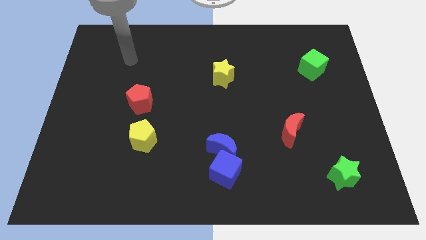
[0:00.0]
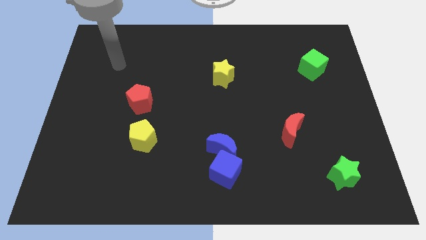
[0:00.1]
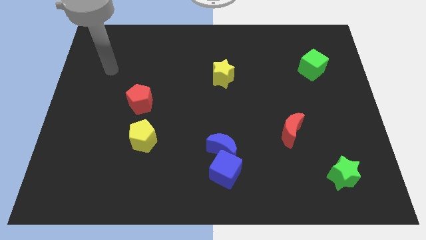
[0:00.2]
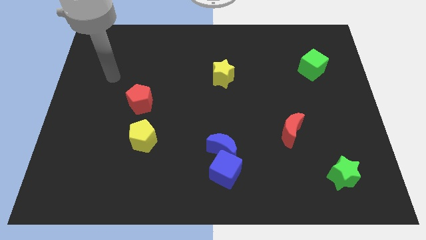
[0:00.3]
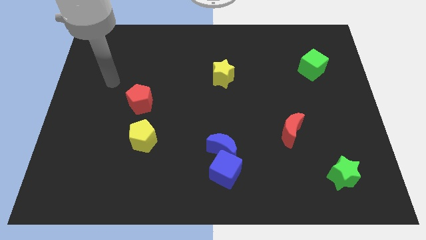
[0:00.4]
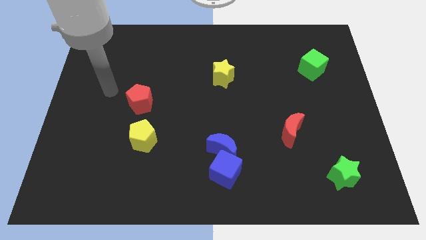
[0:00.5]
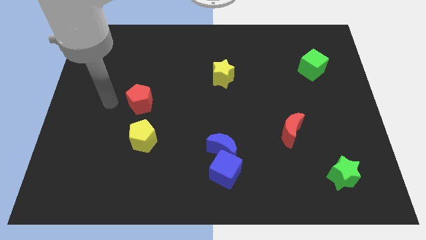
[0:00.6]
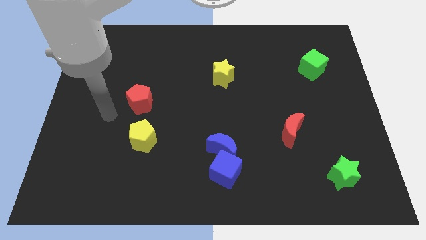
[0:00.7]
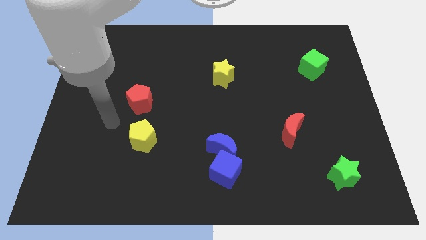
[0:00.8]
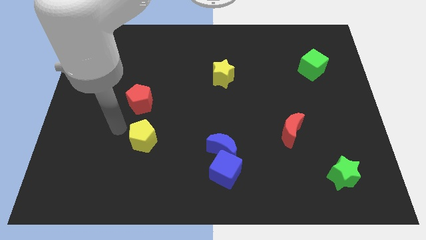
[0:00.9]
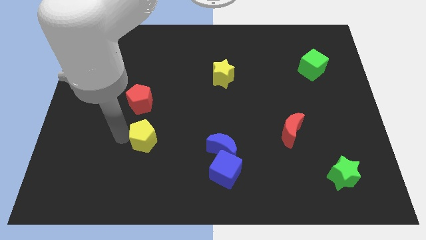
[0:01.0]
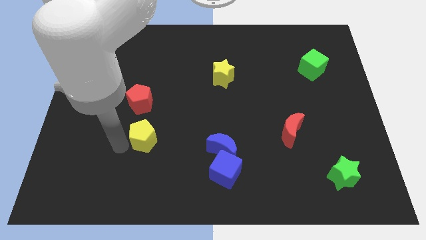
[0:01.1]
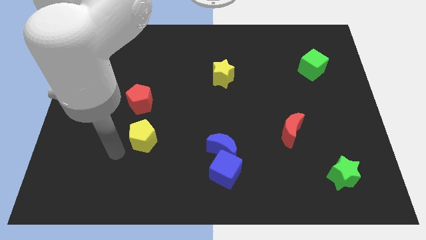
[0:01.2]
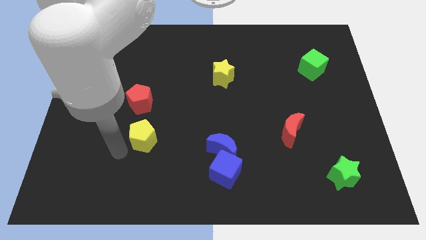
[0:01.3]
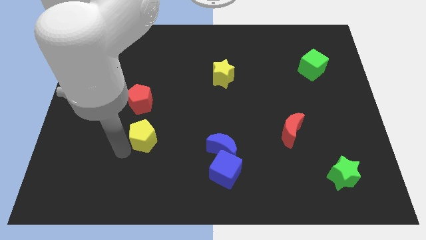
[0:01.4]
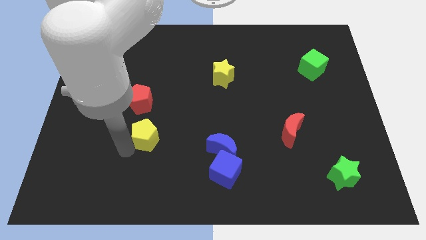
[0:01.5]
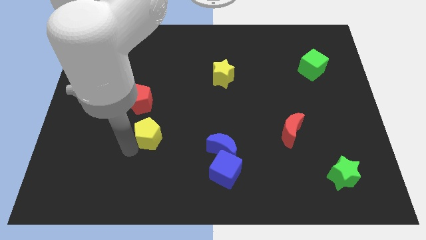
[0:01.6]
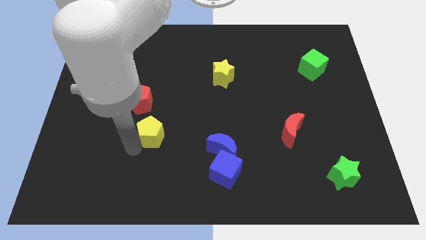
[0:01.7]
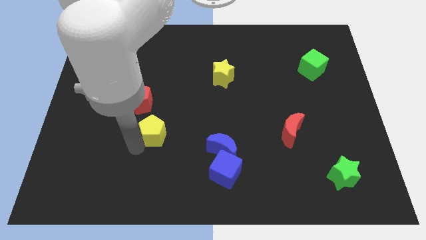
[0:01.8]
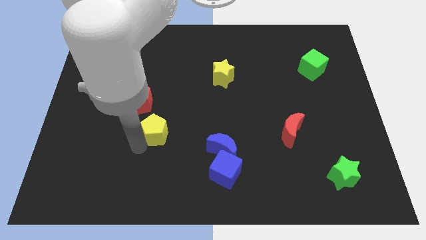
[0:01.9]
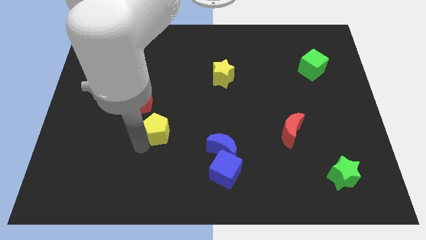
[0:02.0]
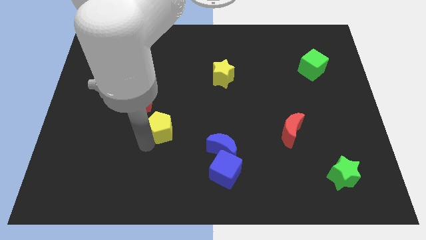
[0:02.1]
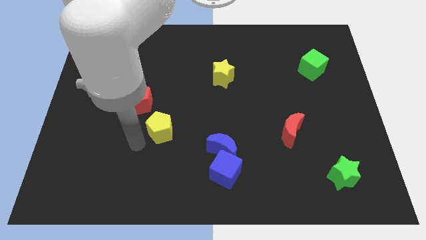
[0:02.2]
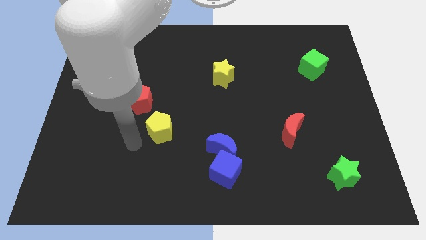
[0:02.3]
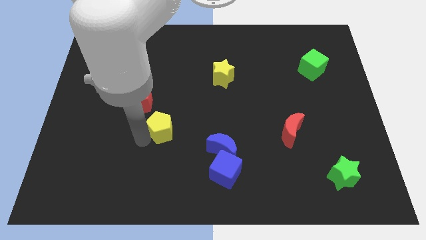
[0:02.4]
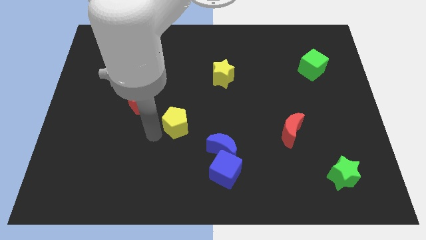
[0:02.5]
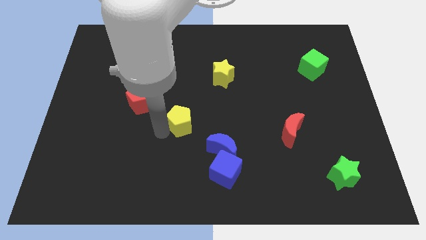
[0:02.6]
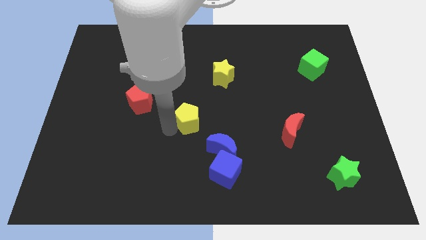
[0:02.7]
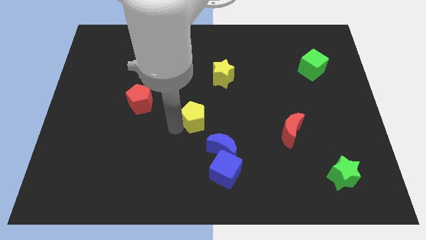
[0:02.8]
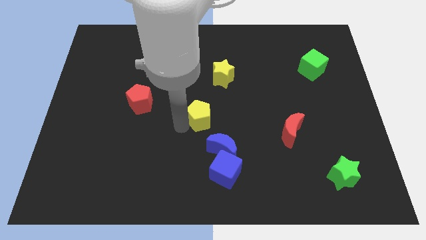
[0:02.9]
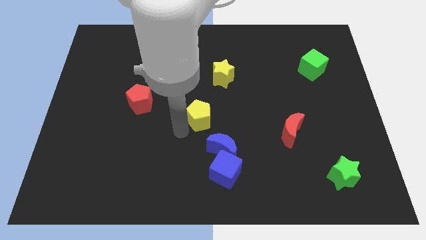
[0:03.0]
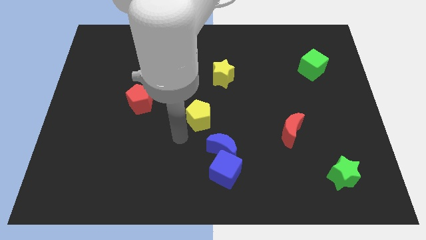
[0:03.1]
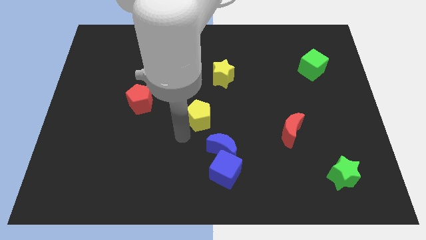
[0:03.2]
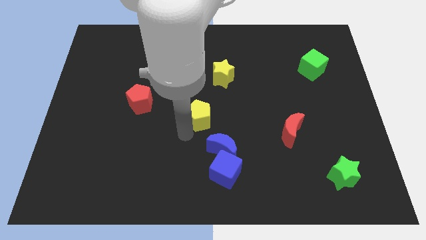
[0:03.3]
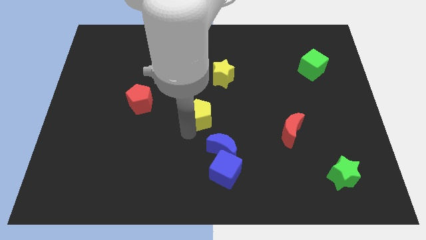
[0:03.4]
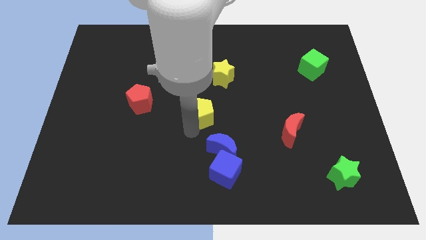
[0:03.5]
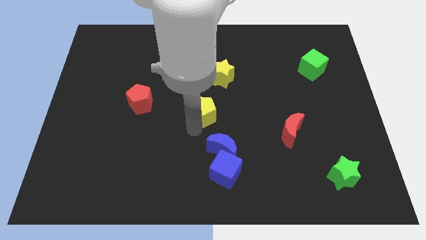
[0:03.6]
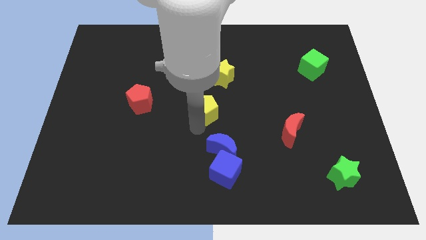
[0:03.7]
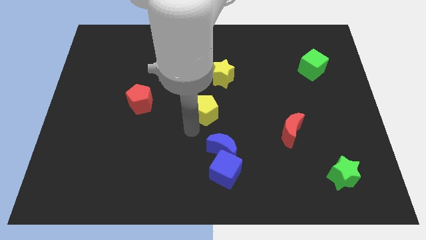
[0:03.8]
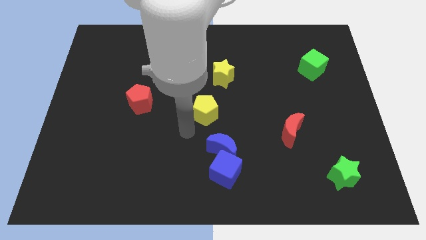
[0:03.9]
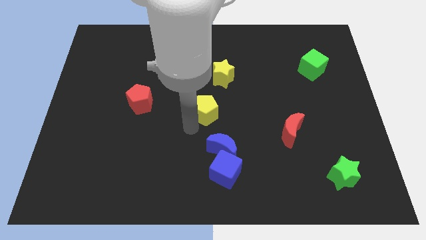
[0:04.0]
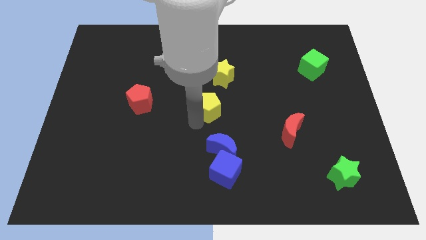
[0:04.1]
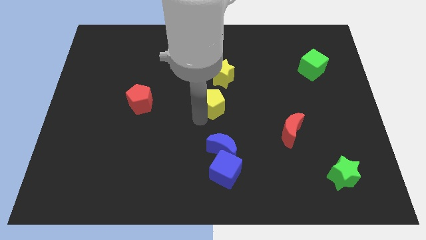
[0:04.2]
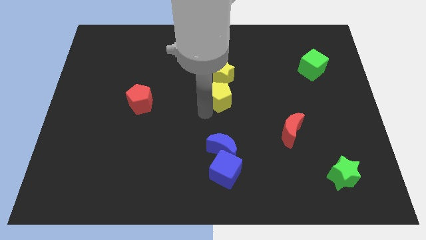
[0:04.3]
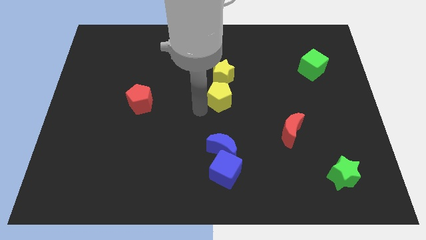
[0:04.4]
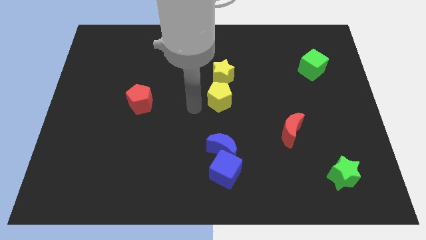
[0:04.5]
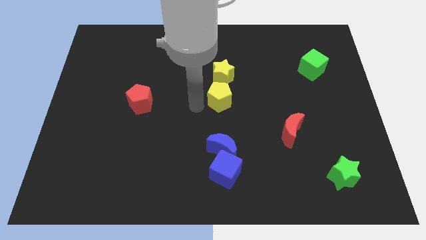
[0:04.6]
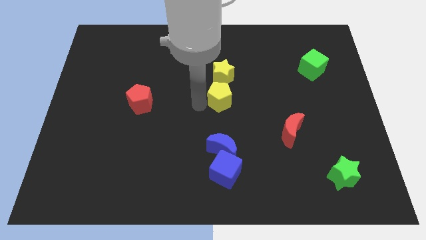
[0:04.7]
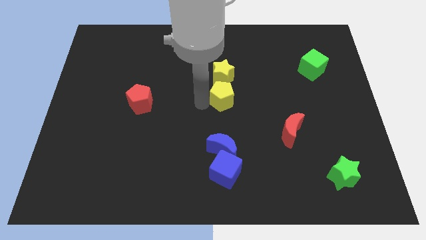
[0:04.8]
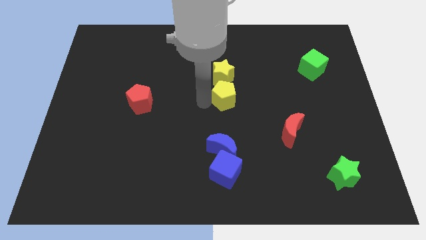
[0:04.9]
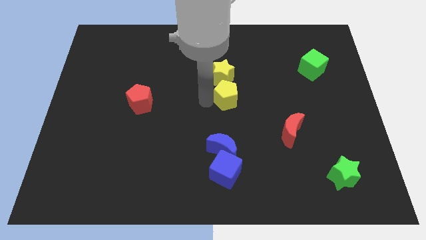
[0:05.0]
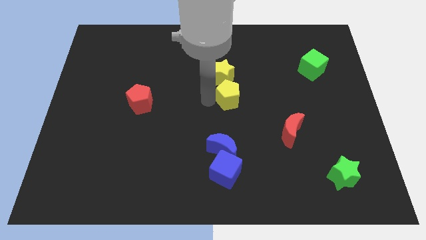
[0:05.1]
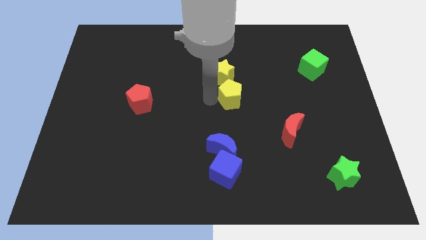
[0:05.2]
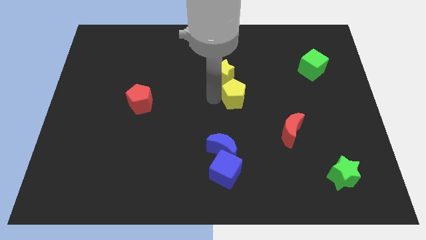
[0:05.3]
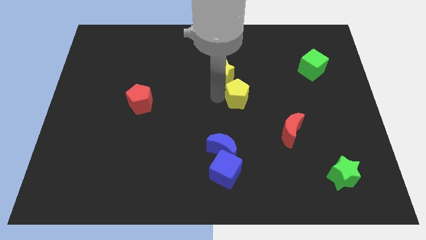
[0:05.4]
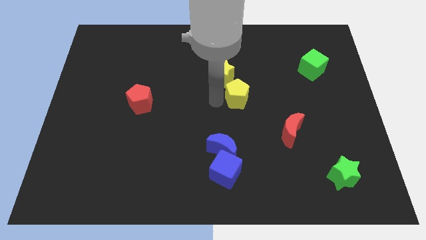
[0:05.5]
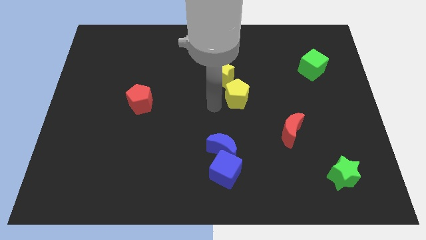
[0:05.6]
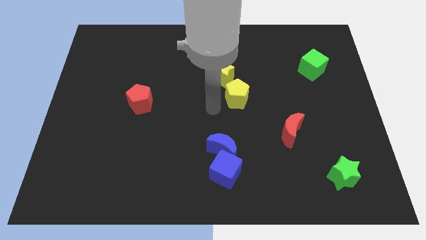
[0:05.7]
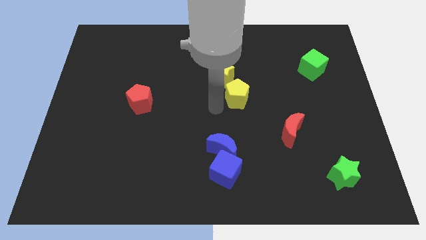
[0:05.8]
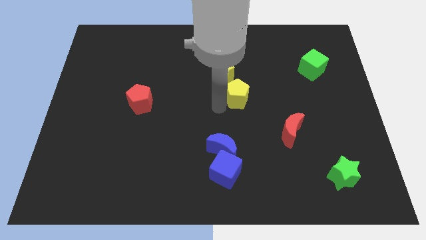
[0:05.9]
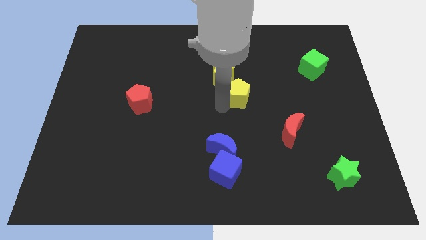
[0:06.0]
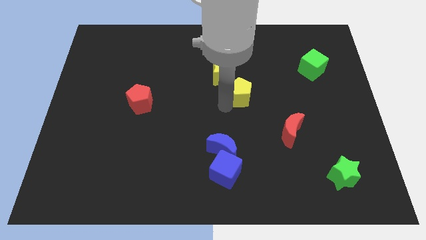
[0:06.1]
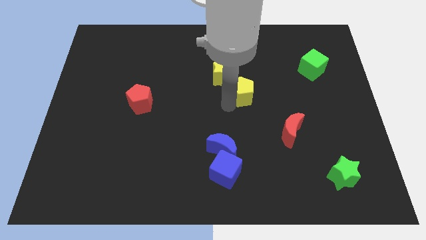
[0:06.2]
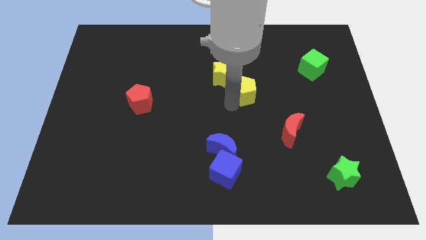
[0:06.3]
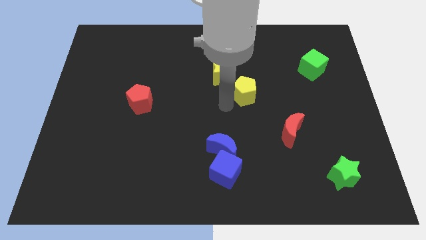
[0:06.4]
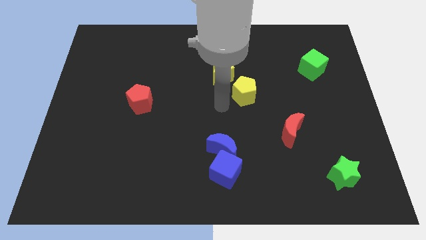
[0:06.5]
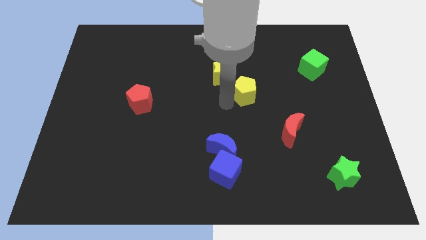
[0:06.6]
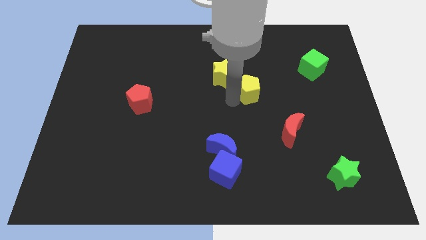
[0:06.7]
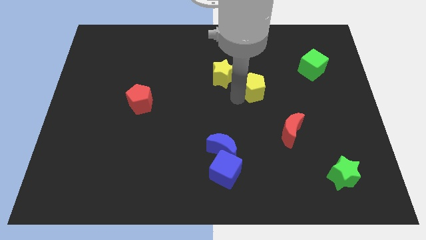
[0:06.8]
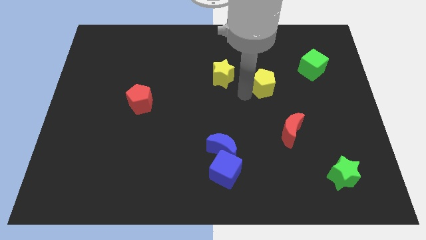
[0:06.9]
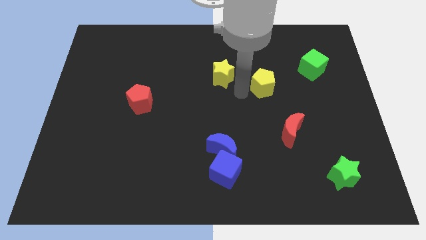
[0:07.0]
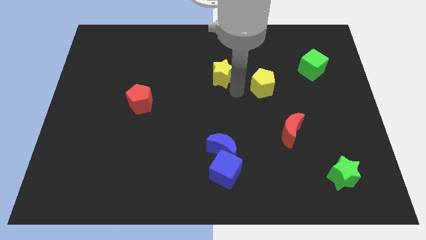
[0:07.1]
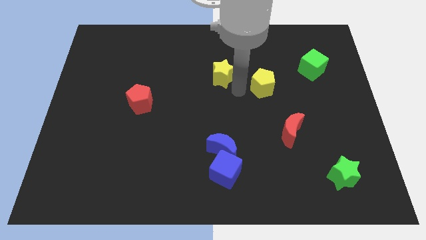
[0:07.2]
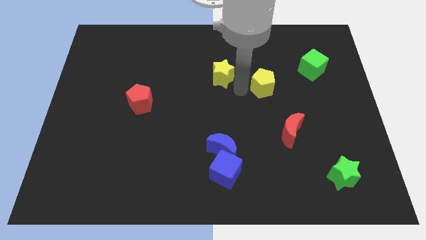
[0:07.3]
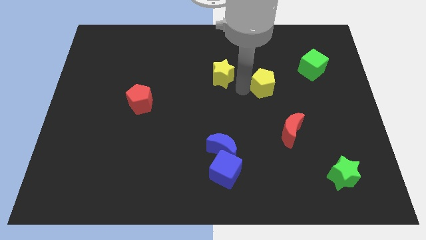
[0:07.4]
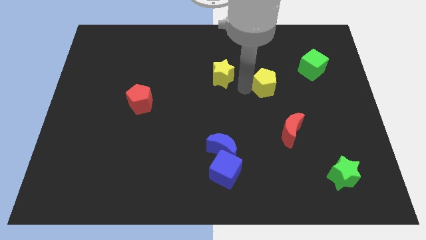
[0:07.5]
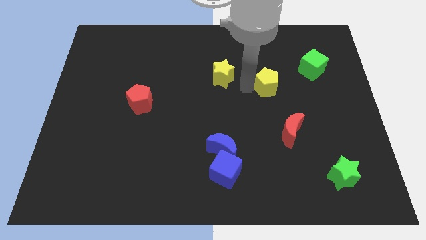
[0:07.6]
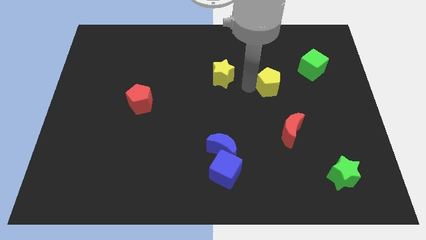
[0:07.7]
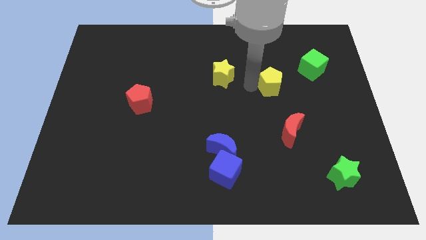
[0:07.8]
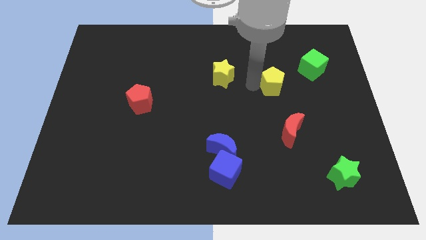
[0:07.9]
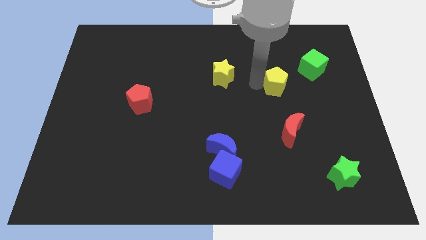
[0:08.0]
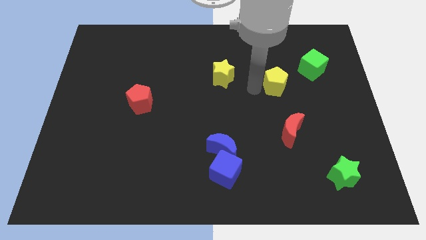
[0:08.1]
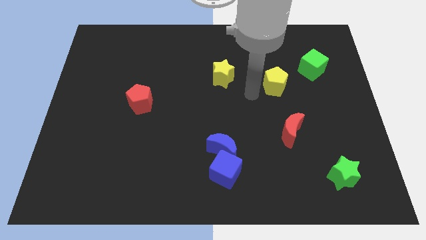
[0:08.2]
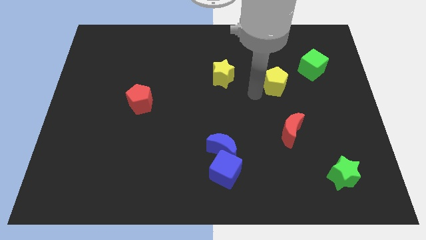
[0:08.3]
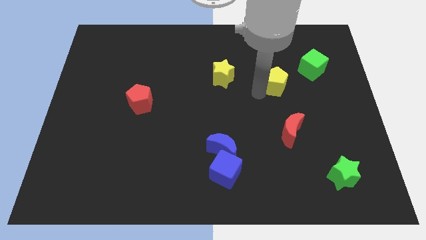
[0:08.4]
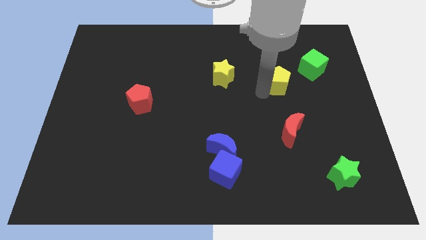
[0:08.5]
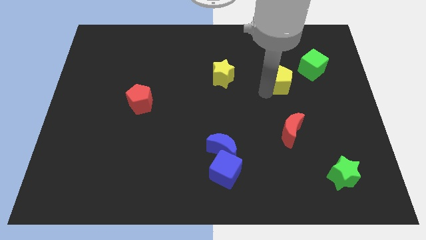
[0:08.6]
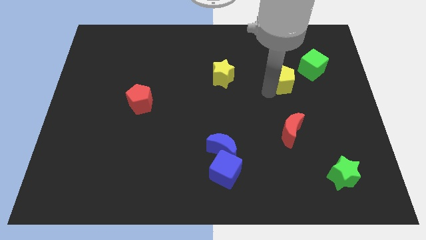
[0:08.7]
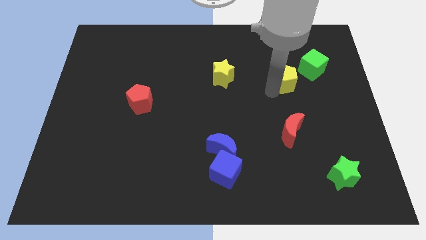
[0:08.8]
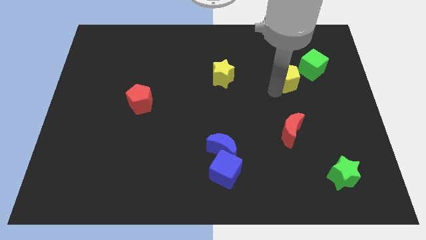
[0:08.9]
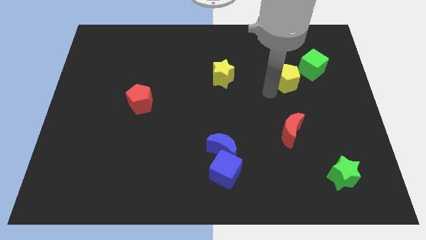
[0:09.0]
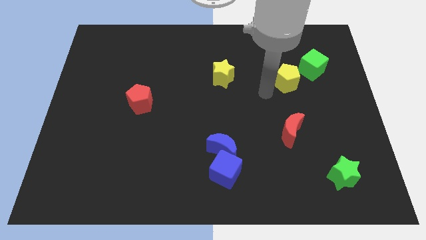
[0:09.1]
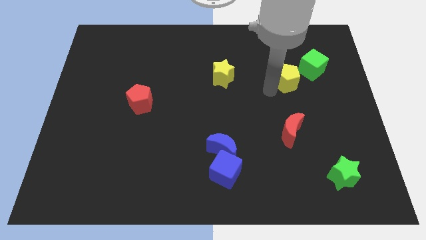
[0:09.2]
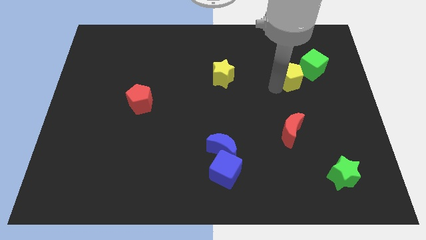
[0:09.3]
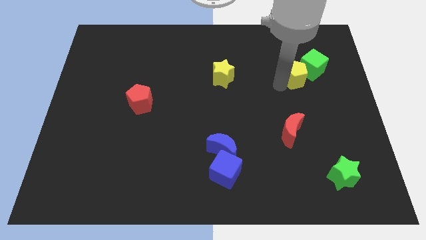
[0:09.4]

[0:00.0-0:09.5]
push the yellow pentagon towards the green cube
